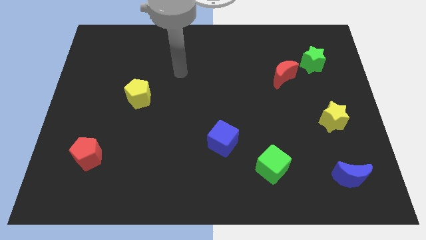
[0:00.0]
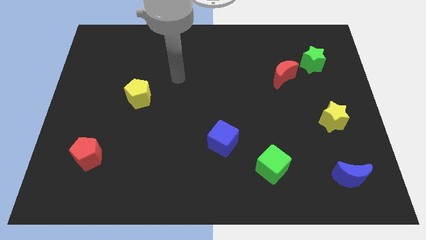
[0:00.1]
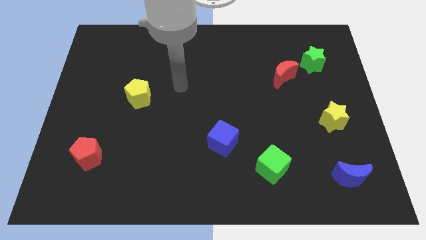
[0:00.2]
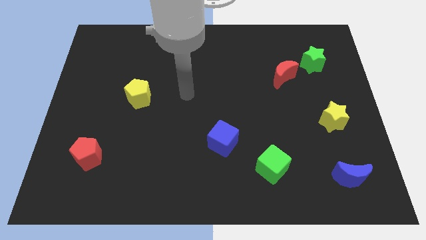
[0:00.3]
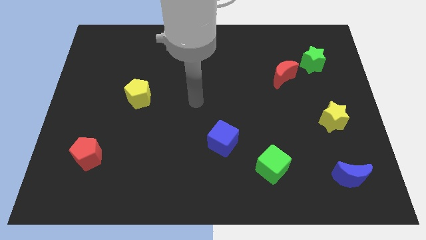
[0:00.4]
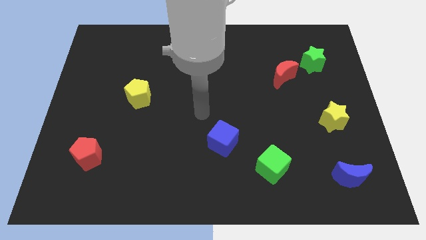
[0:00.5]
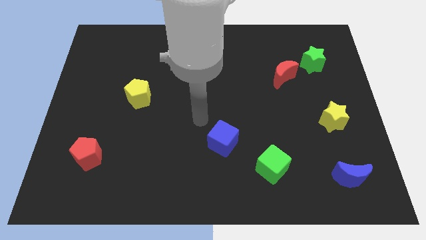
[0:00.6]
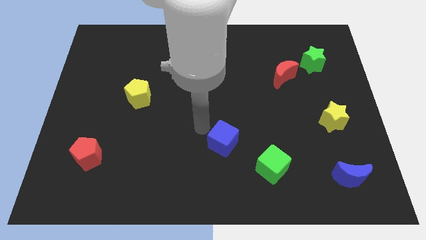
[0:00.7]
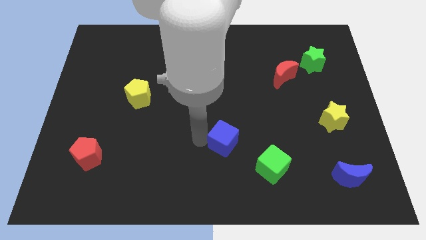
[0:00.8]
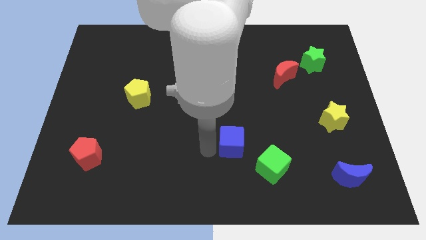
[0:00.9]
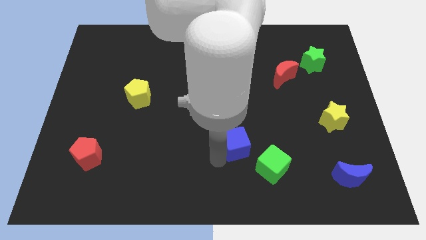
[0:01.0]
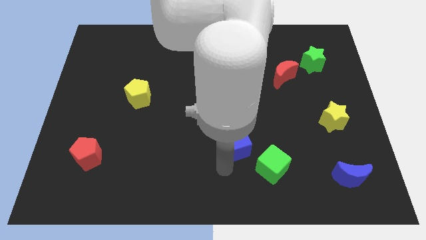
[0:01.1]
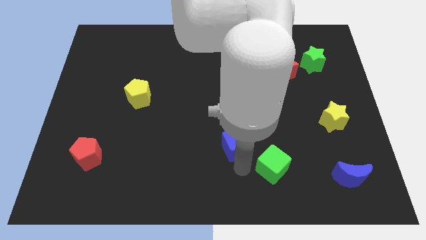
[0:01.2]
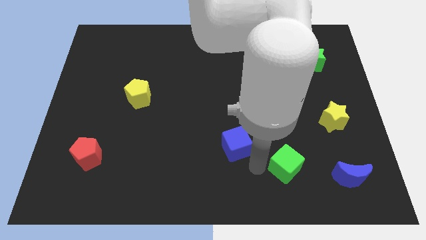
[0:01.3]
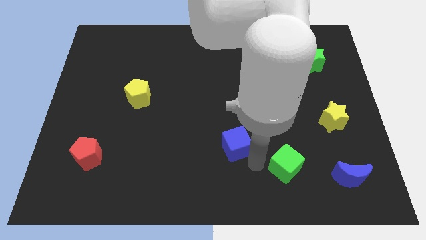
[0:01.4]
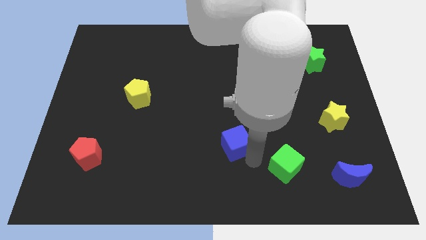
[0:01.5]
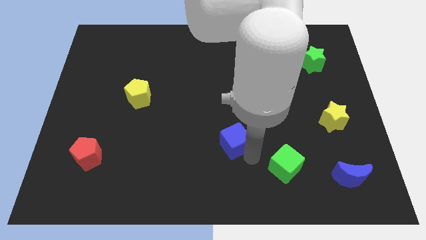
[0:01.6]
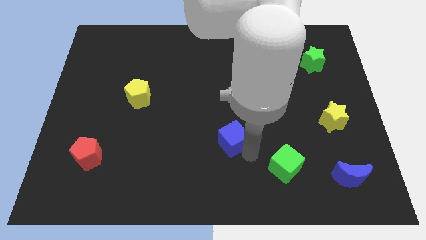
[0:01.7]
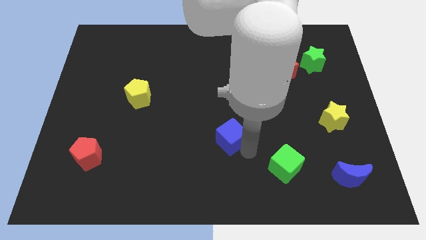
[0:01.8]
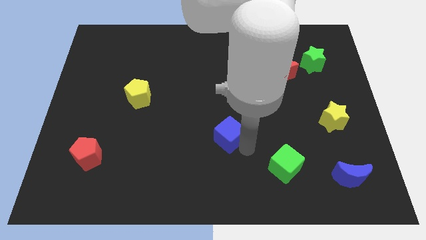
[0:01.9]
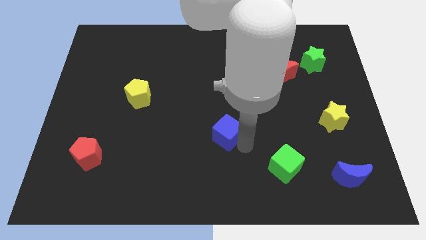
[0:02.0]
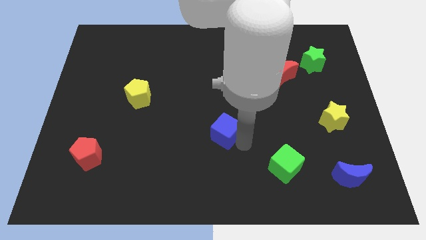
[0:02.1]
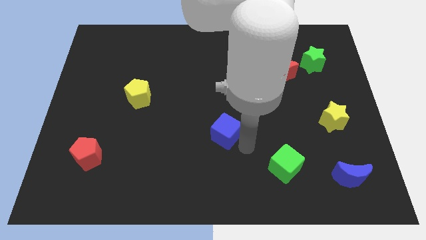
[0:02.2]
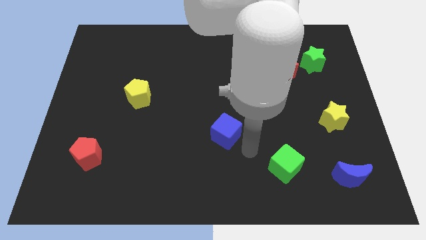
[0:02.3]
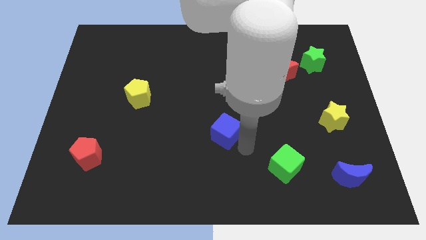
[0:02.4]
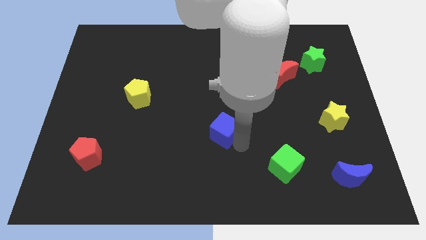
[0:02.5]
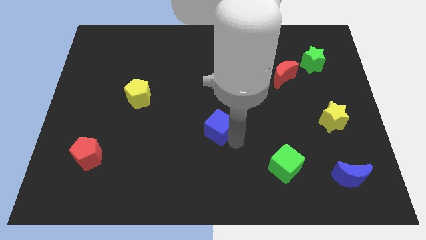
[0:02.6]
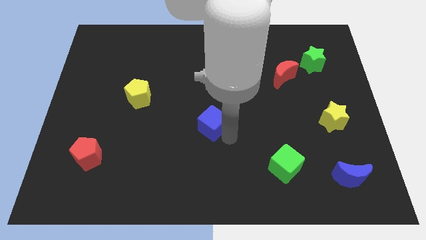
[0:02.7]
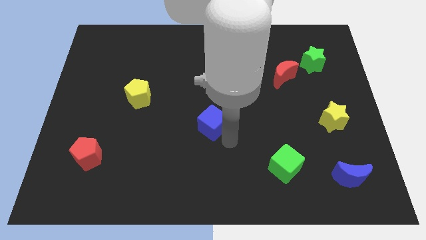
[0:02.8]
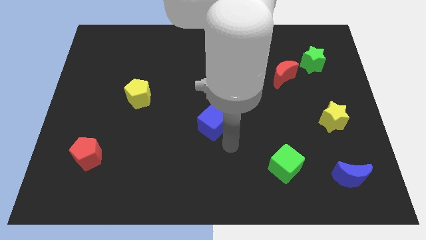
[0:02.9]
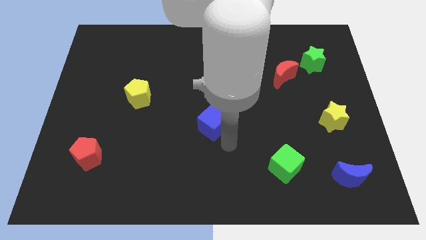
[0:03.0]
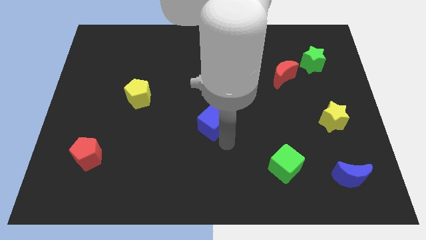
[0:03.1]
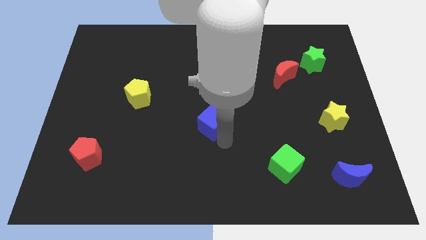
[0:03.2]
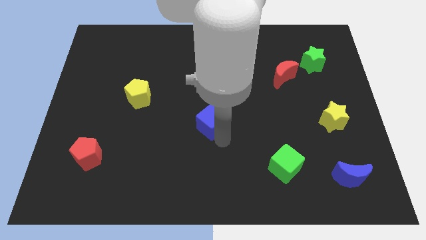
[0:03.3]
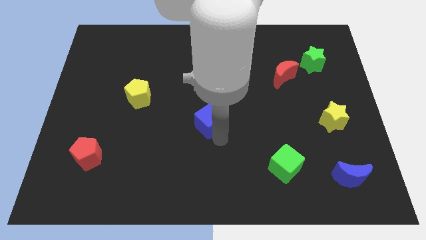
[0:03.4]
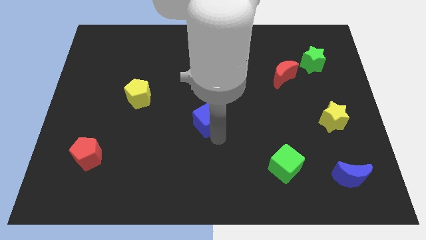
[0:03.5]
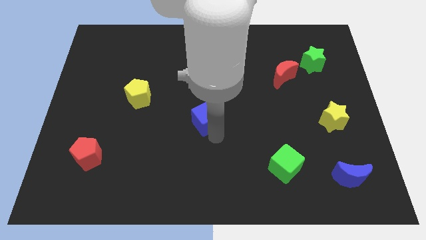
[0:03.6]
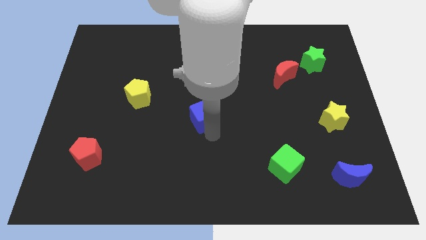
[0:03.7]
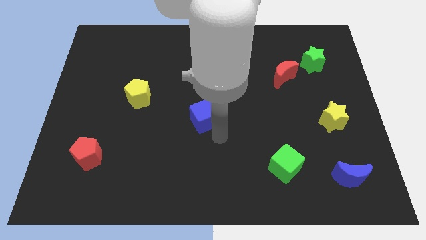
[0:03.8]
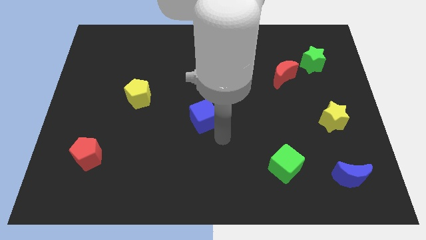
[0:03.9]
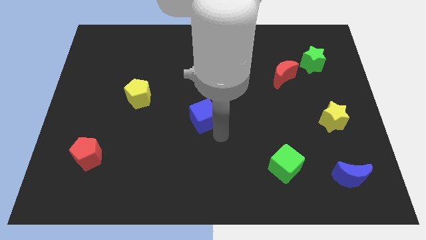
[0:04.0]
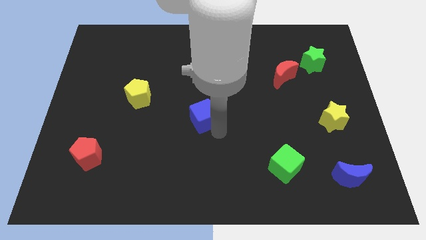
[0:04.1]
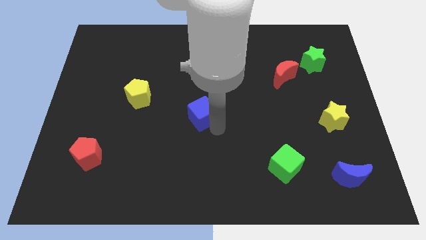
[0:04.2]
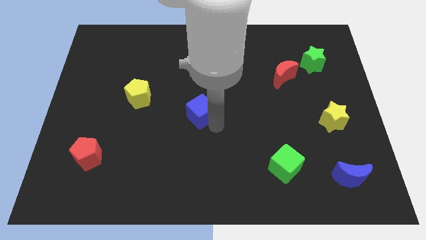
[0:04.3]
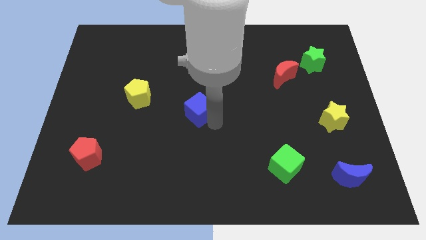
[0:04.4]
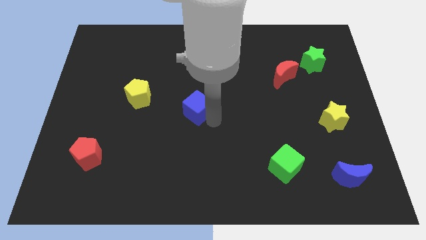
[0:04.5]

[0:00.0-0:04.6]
move the blue cube right of the yellow pentagon

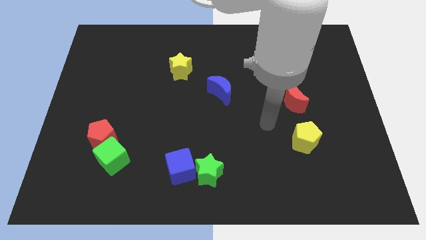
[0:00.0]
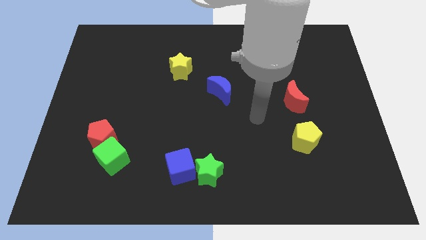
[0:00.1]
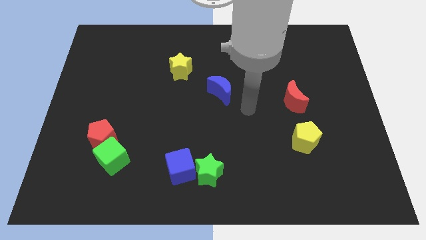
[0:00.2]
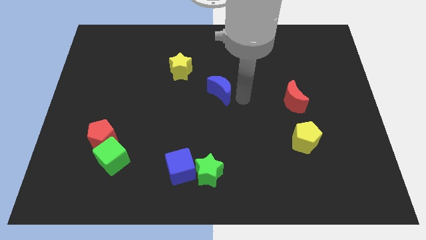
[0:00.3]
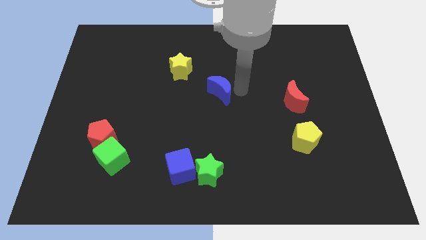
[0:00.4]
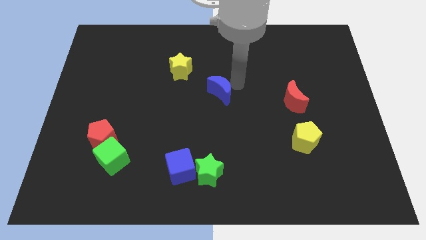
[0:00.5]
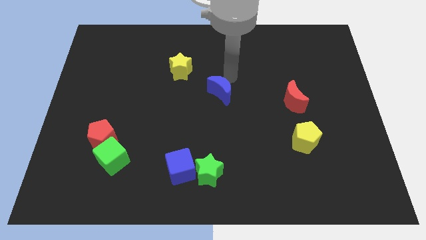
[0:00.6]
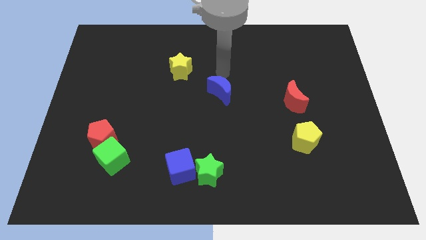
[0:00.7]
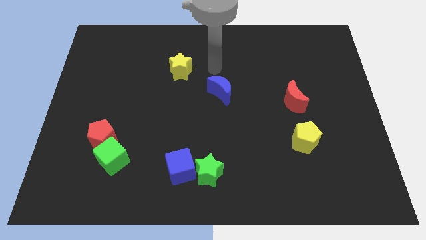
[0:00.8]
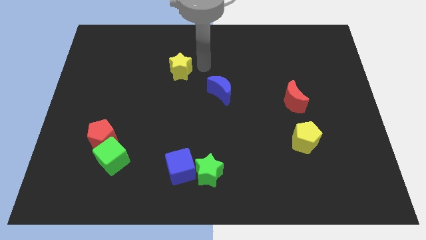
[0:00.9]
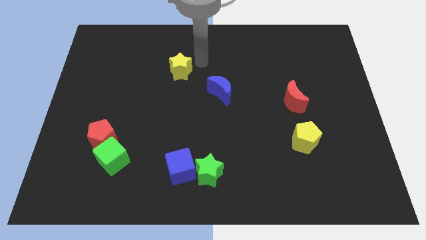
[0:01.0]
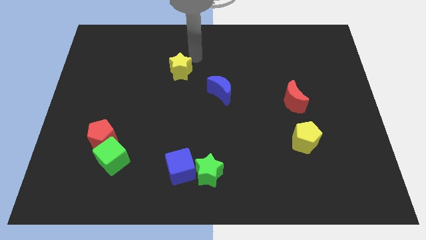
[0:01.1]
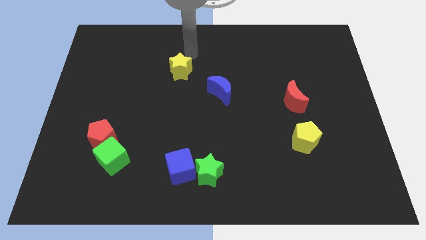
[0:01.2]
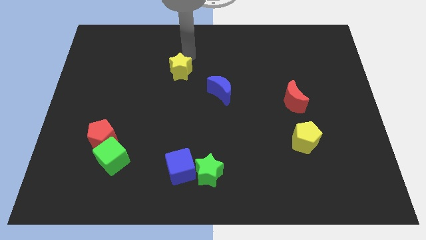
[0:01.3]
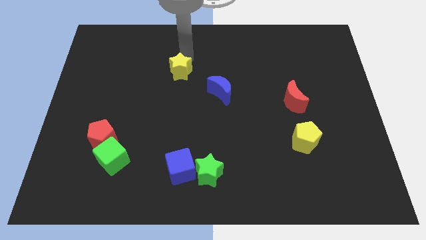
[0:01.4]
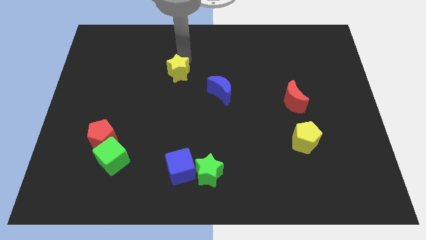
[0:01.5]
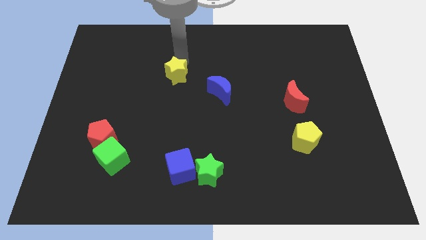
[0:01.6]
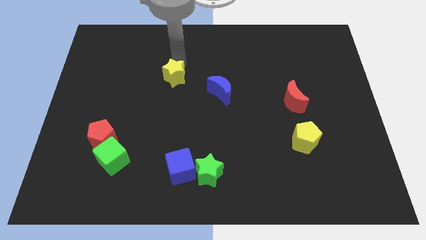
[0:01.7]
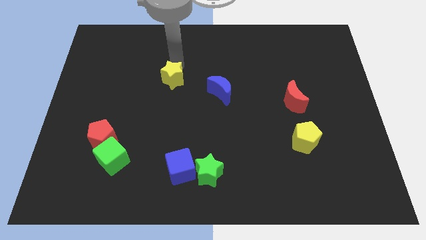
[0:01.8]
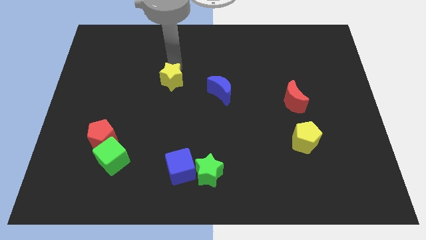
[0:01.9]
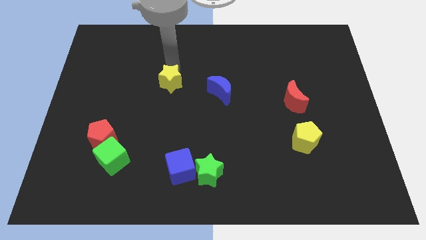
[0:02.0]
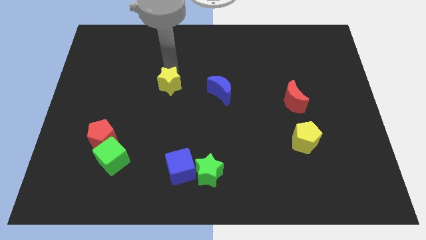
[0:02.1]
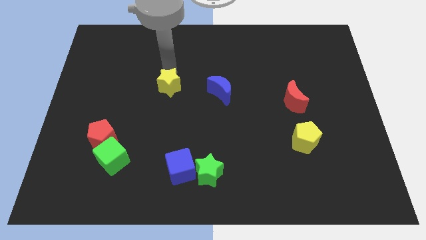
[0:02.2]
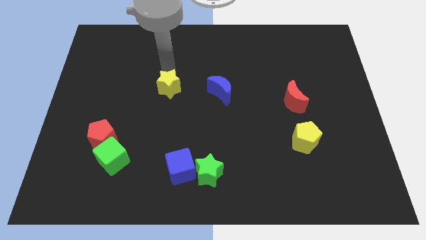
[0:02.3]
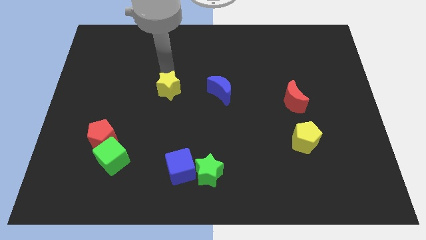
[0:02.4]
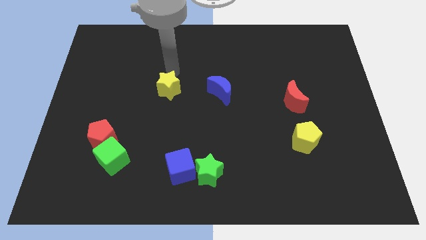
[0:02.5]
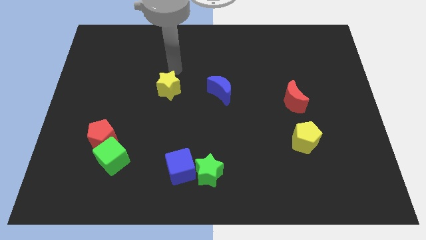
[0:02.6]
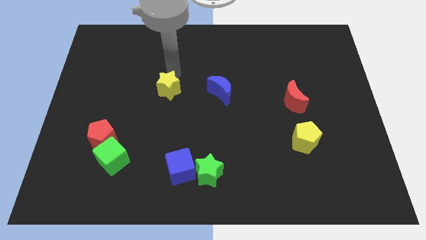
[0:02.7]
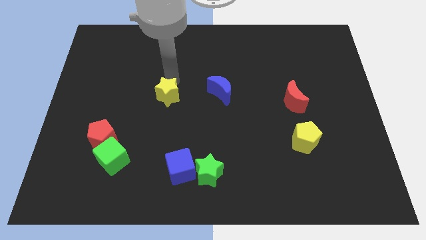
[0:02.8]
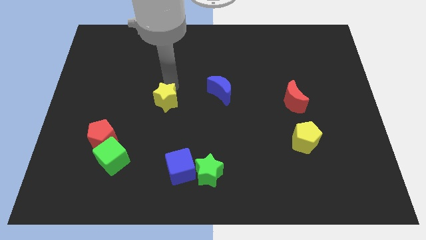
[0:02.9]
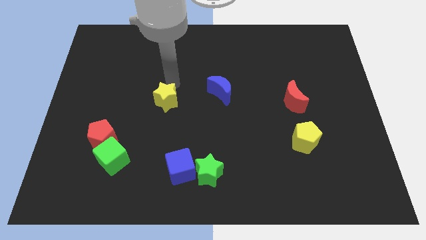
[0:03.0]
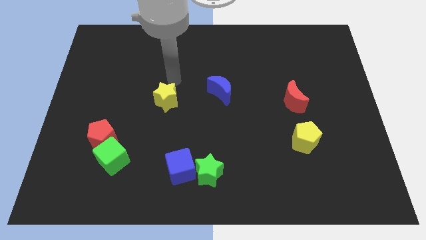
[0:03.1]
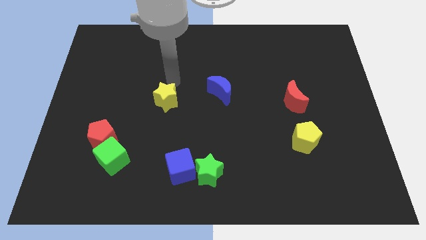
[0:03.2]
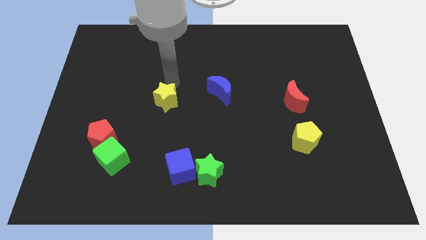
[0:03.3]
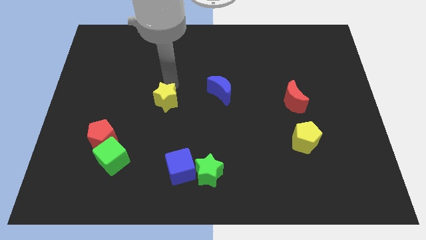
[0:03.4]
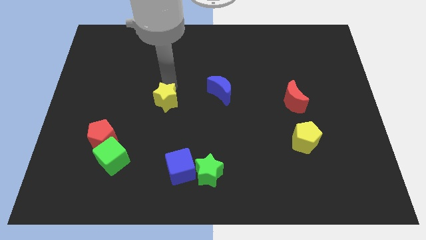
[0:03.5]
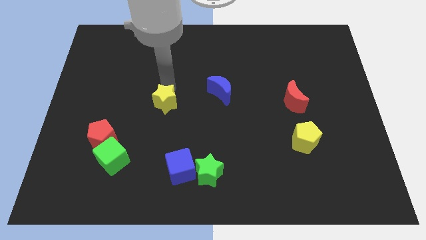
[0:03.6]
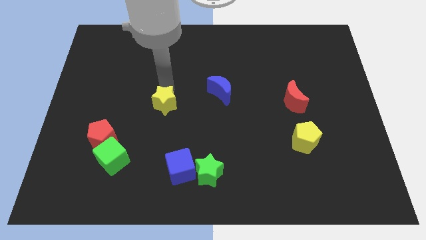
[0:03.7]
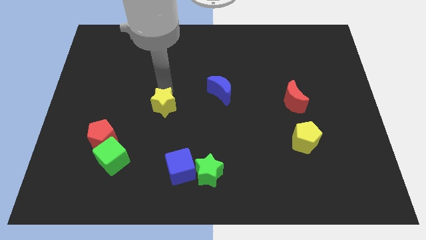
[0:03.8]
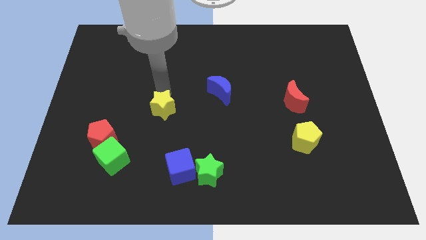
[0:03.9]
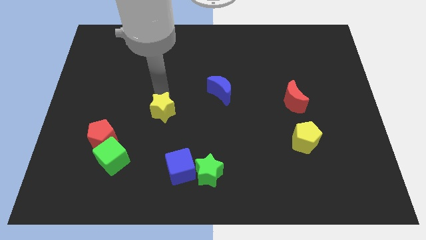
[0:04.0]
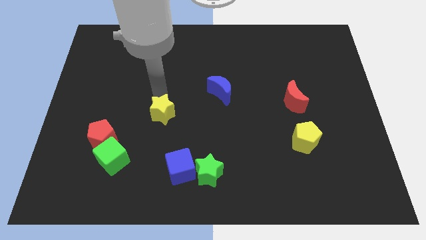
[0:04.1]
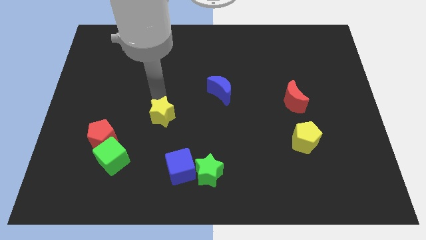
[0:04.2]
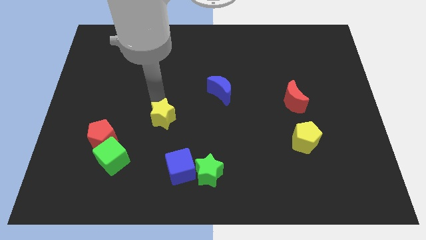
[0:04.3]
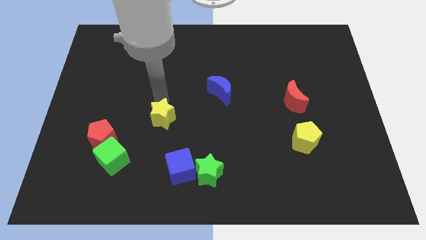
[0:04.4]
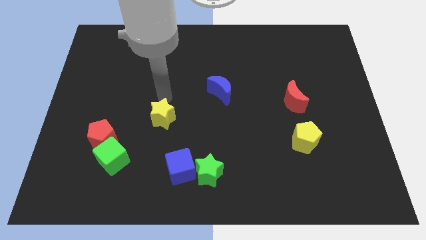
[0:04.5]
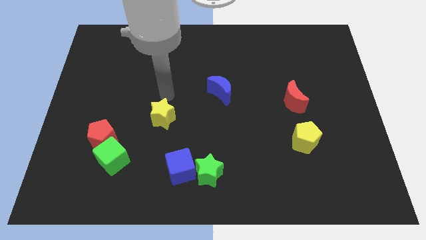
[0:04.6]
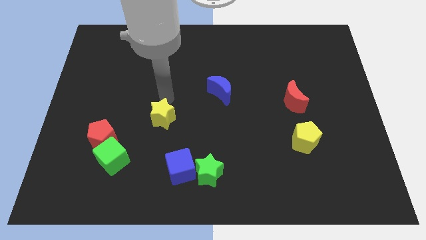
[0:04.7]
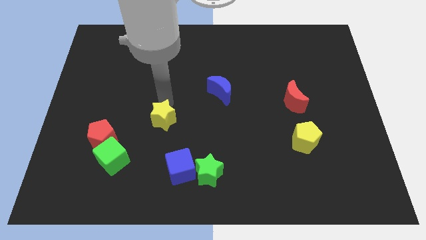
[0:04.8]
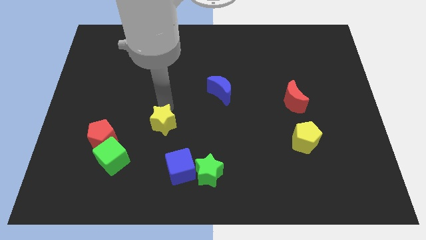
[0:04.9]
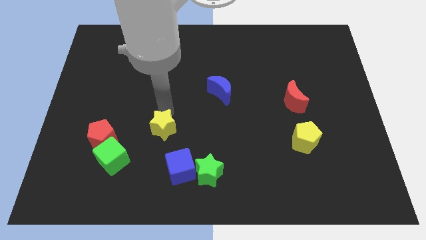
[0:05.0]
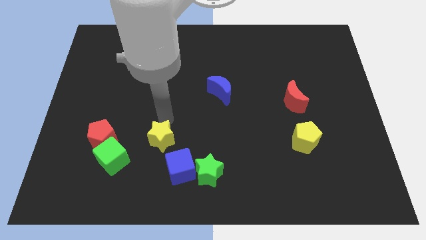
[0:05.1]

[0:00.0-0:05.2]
slide the yellow star just right of the green cube
